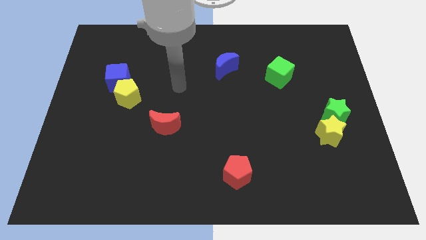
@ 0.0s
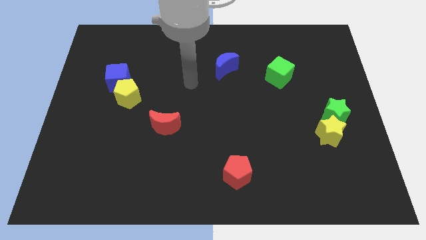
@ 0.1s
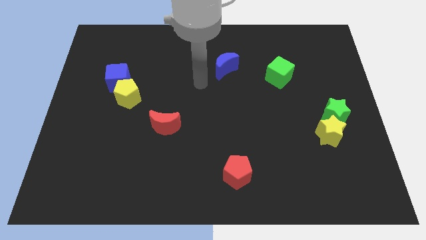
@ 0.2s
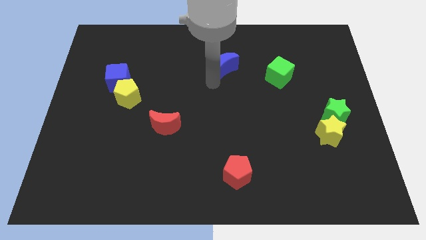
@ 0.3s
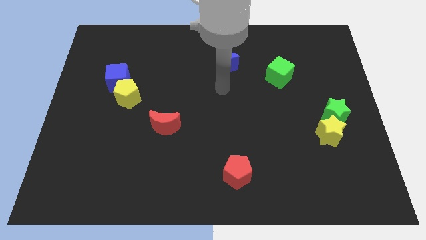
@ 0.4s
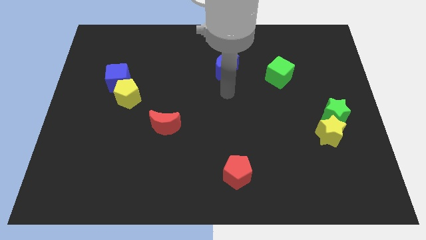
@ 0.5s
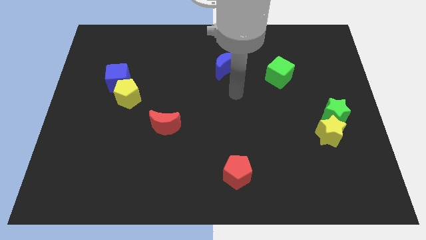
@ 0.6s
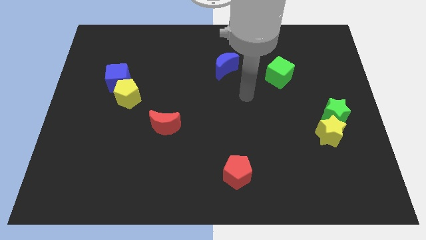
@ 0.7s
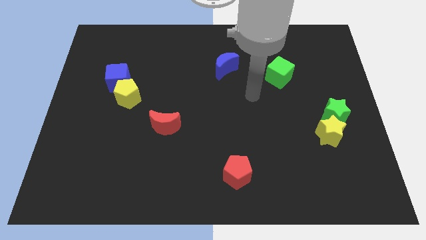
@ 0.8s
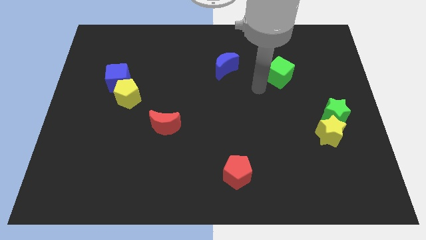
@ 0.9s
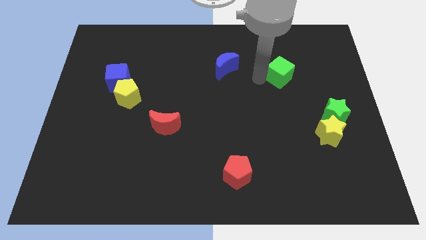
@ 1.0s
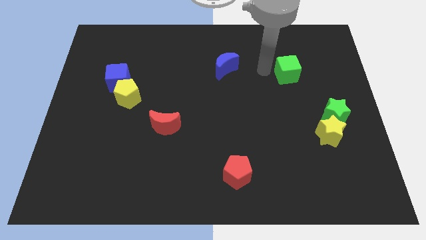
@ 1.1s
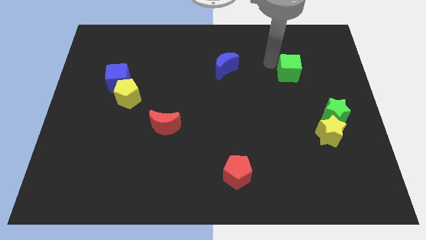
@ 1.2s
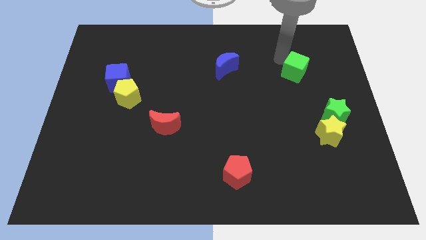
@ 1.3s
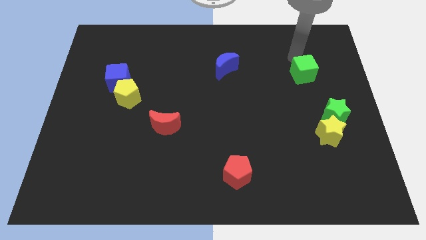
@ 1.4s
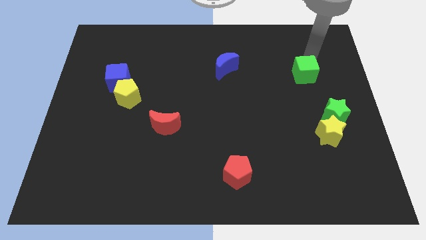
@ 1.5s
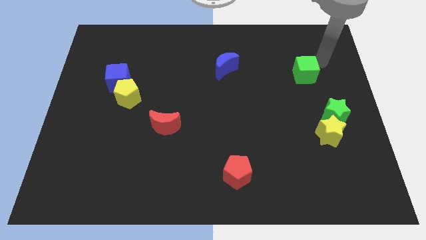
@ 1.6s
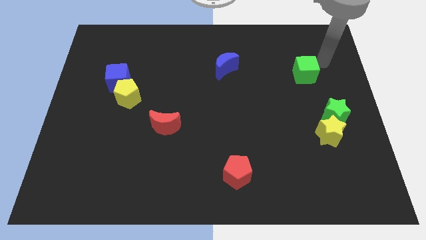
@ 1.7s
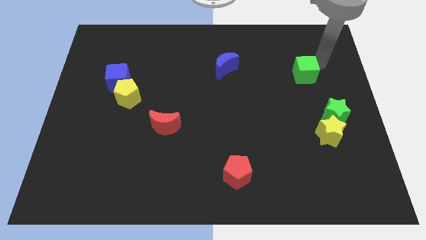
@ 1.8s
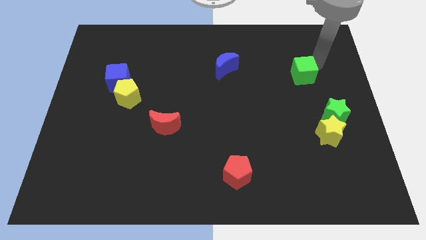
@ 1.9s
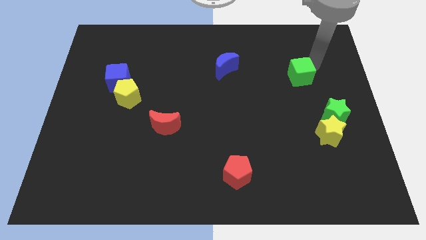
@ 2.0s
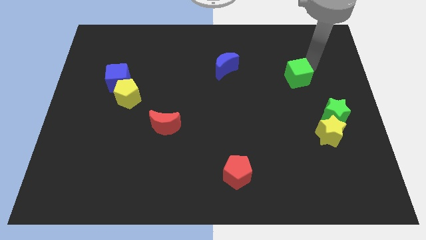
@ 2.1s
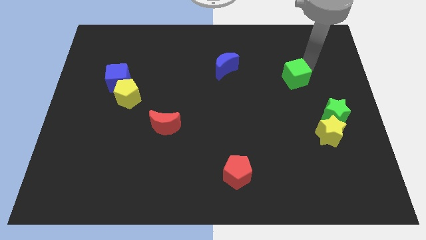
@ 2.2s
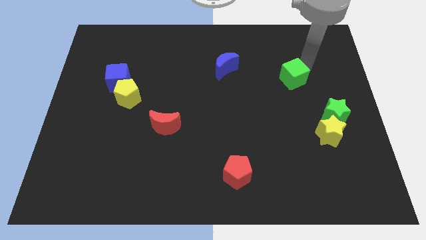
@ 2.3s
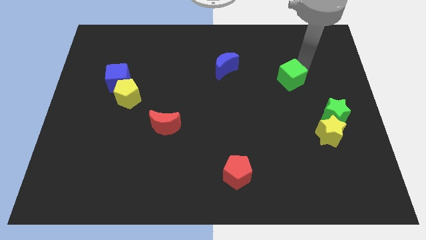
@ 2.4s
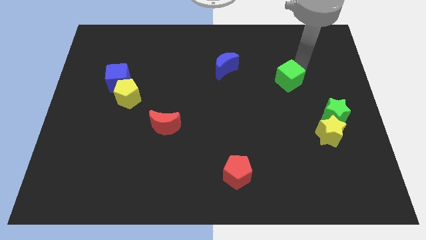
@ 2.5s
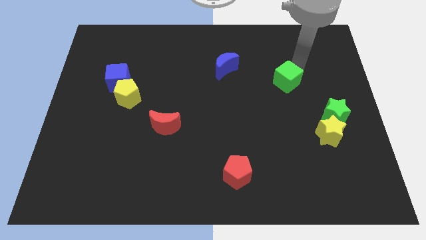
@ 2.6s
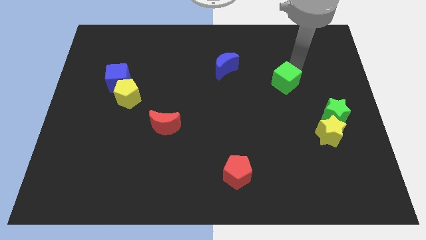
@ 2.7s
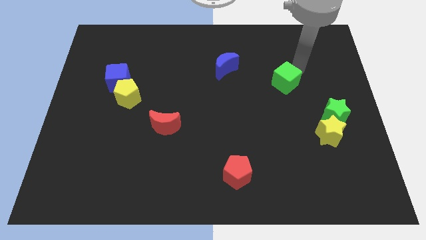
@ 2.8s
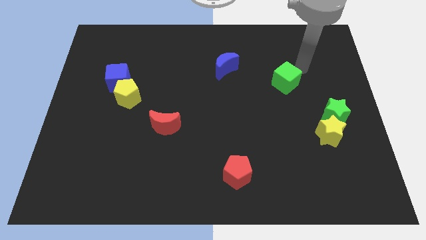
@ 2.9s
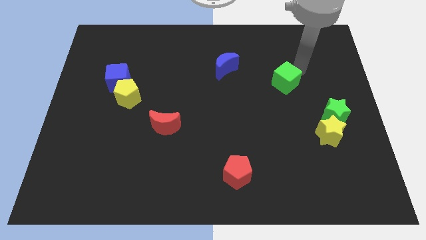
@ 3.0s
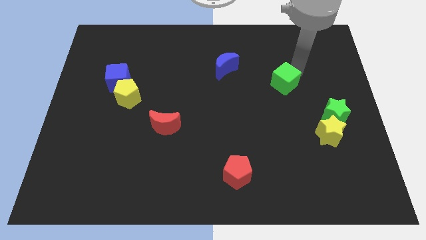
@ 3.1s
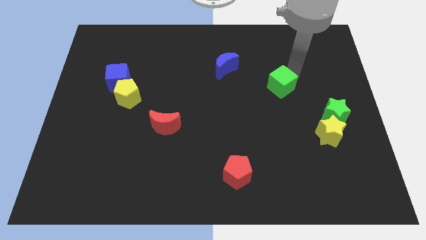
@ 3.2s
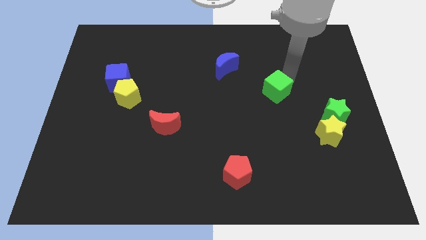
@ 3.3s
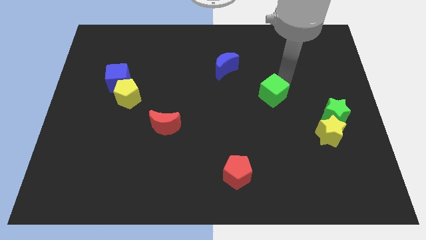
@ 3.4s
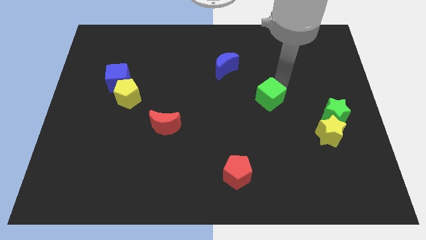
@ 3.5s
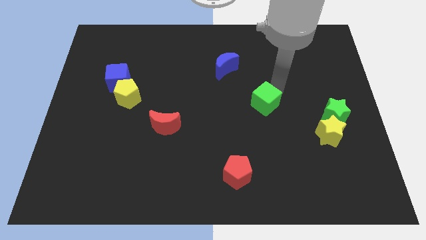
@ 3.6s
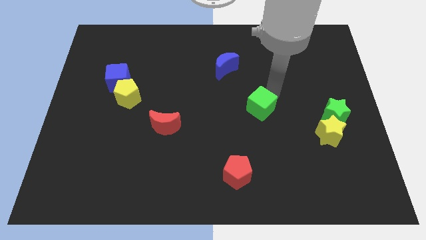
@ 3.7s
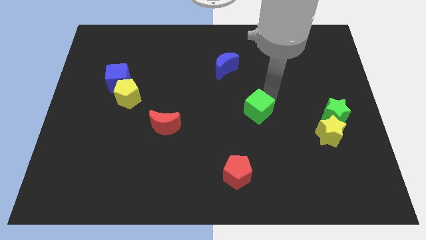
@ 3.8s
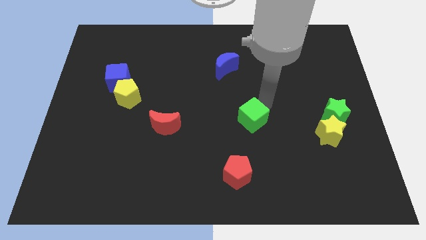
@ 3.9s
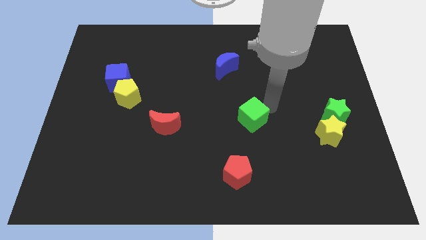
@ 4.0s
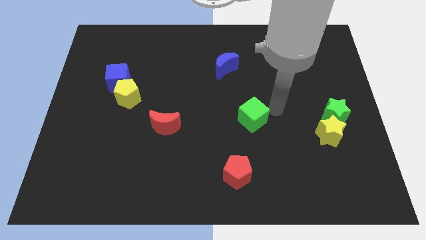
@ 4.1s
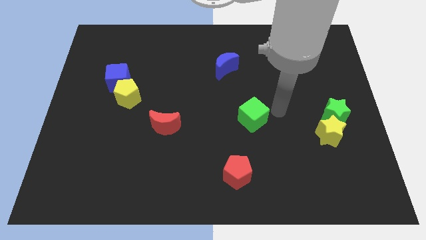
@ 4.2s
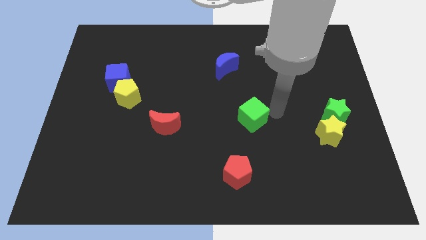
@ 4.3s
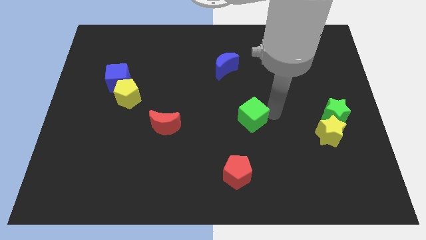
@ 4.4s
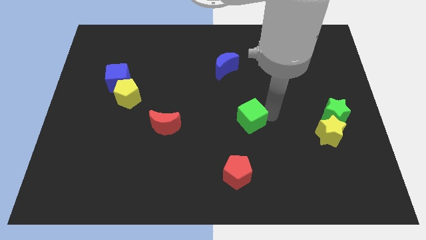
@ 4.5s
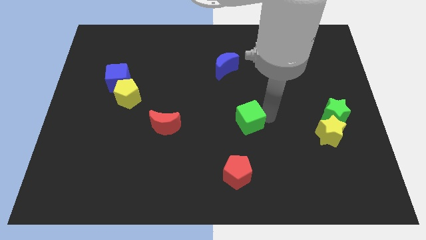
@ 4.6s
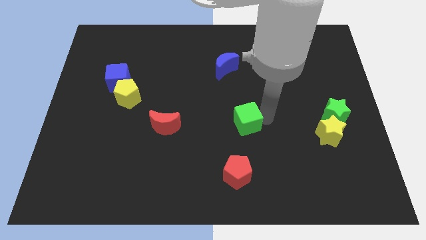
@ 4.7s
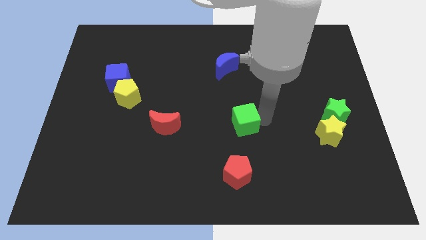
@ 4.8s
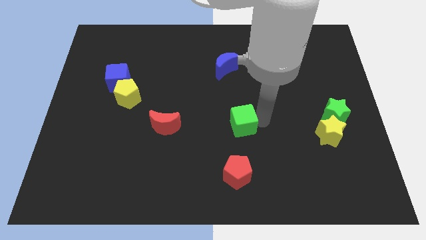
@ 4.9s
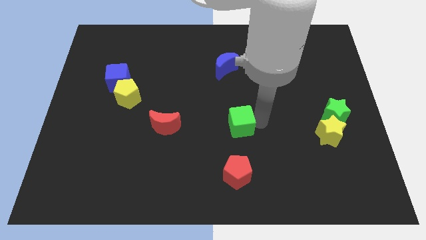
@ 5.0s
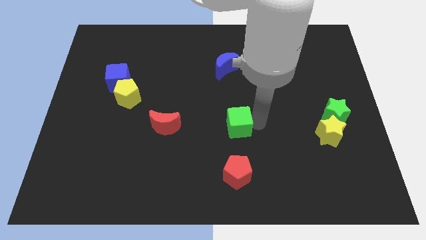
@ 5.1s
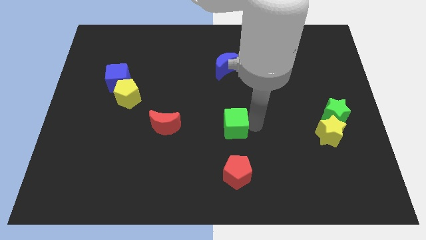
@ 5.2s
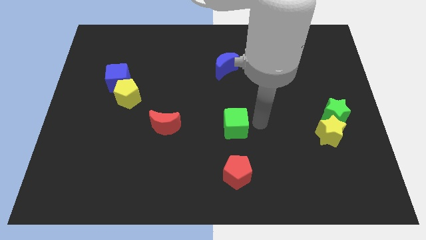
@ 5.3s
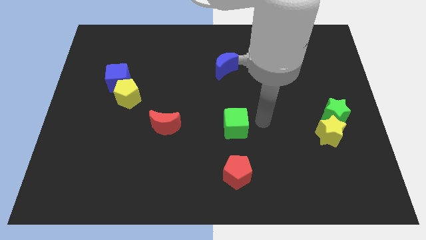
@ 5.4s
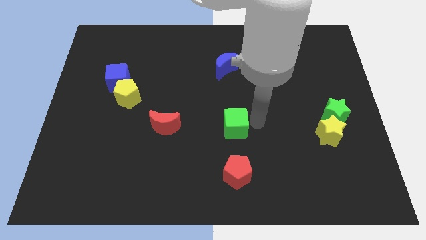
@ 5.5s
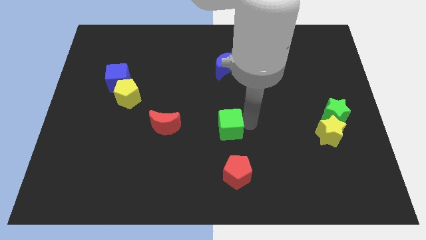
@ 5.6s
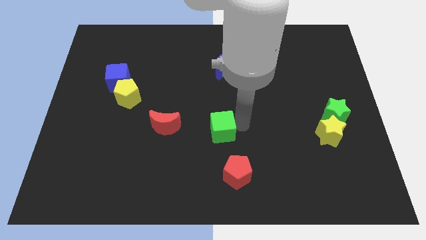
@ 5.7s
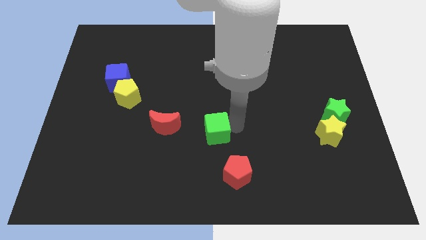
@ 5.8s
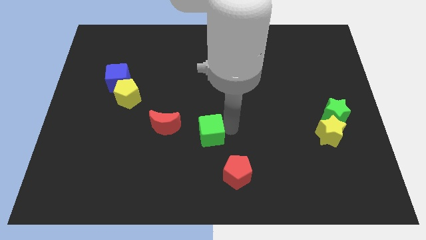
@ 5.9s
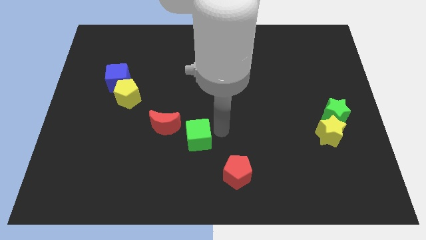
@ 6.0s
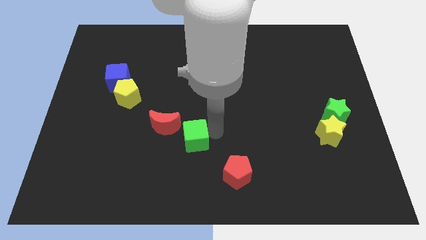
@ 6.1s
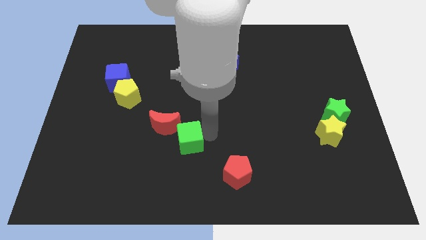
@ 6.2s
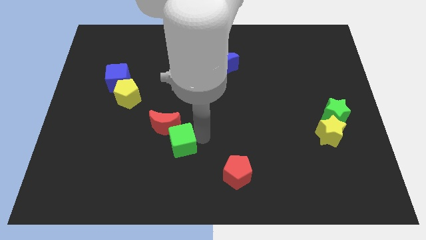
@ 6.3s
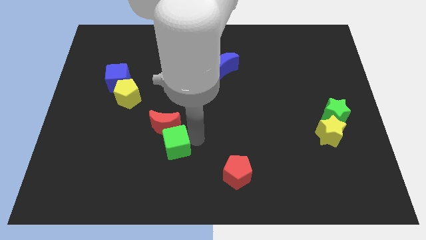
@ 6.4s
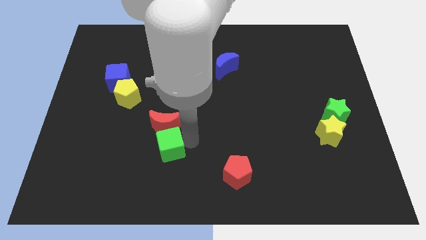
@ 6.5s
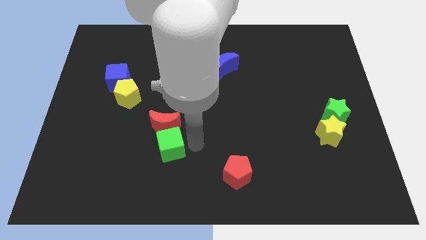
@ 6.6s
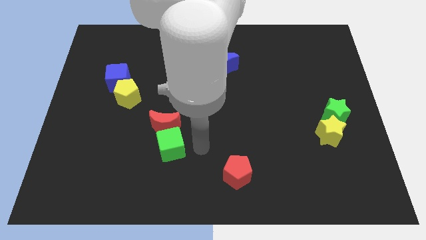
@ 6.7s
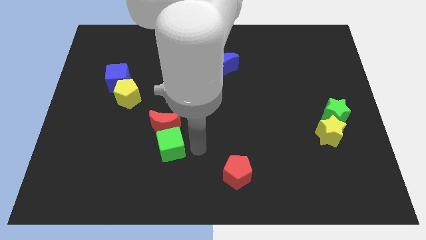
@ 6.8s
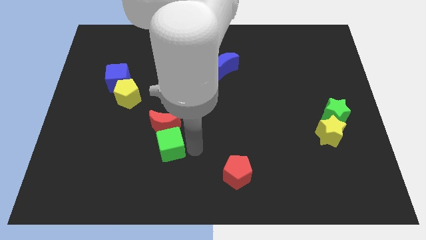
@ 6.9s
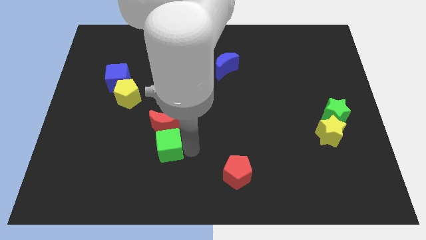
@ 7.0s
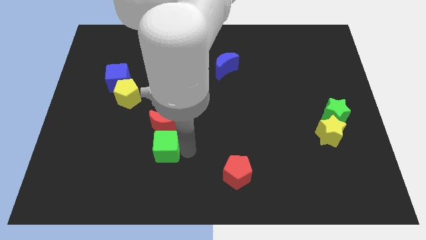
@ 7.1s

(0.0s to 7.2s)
push the green cube to the bottom left side of the red moon

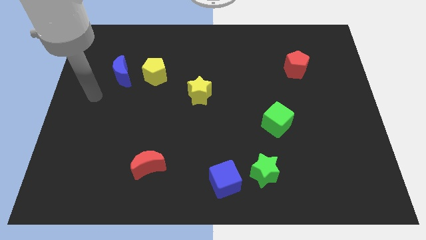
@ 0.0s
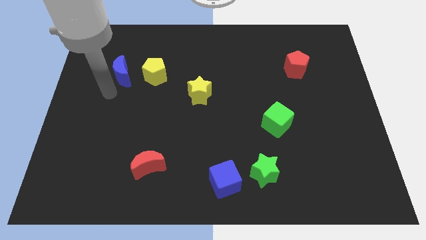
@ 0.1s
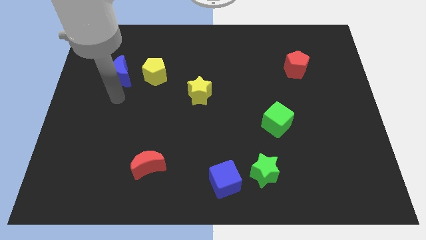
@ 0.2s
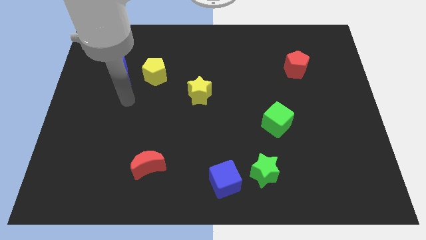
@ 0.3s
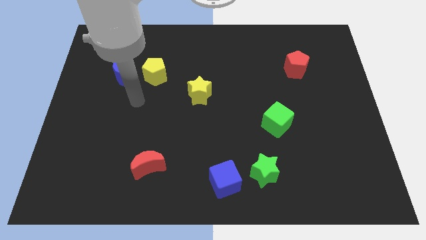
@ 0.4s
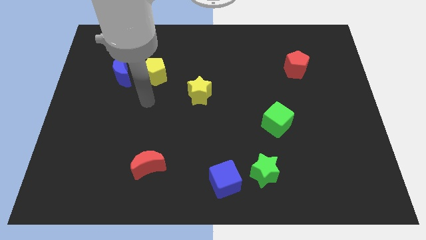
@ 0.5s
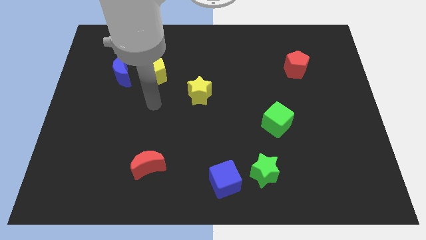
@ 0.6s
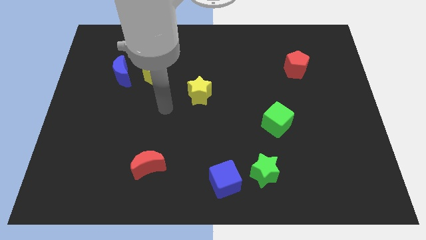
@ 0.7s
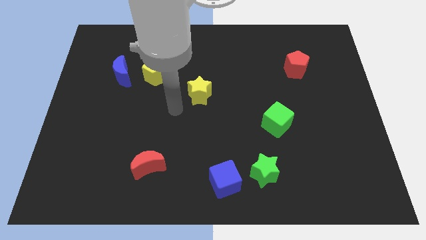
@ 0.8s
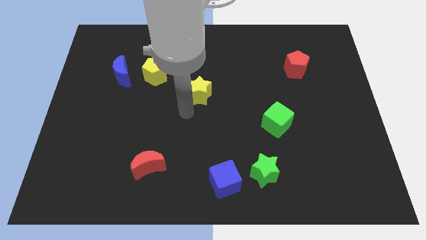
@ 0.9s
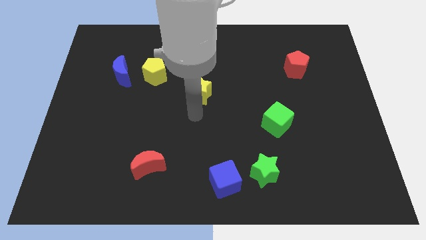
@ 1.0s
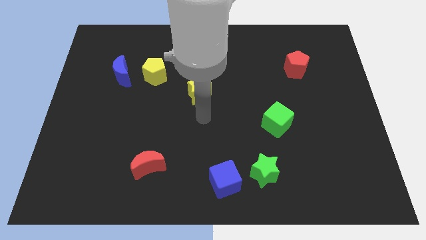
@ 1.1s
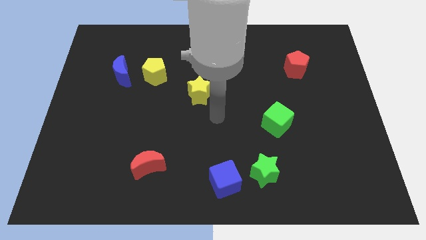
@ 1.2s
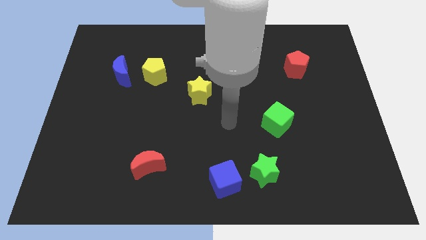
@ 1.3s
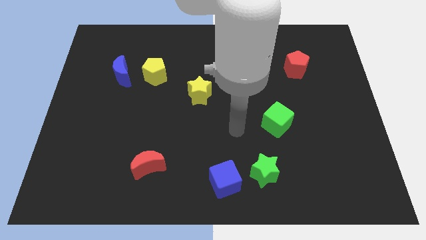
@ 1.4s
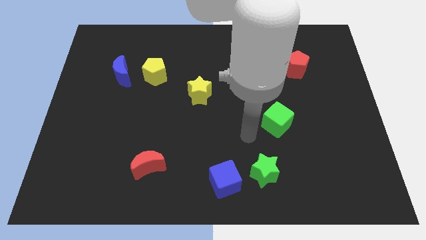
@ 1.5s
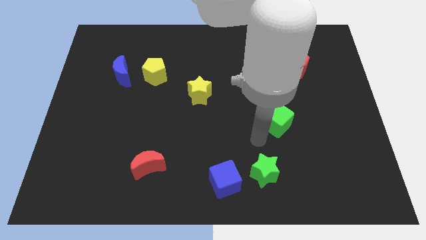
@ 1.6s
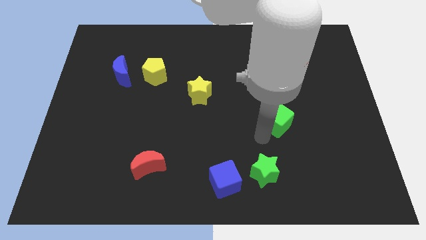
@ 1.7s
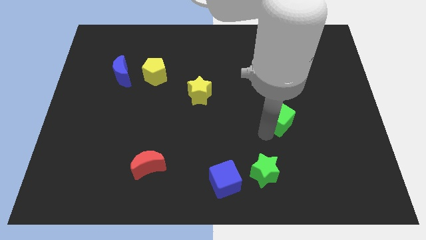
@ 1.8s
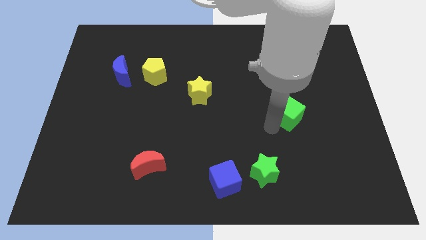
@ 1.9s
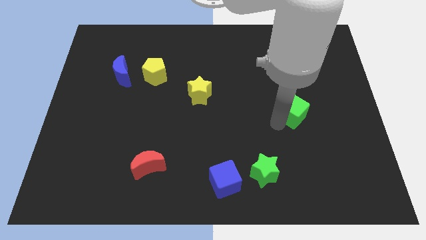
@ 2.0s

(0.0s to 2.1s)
move the green cube below the red pentagon
